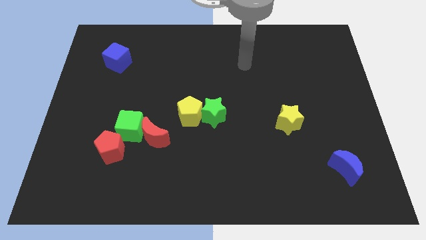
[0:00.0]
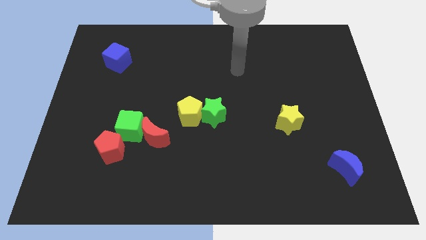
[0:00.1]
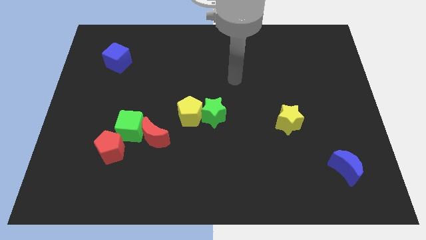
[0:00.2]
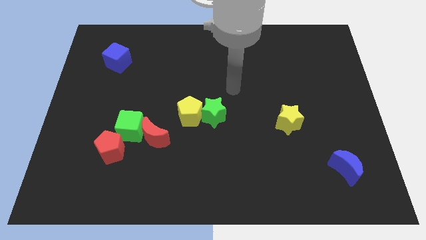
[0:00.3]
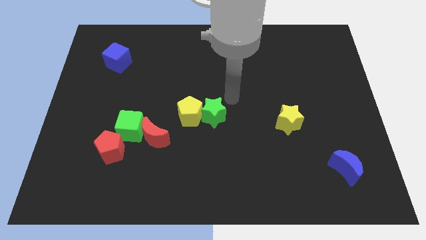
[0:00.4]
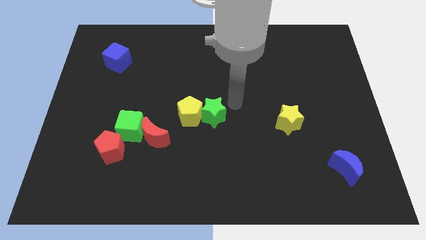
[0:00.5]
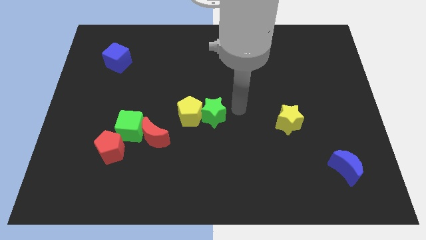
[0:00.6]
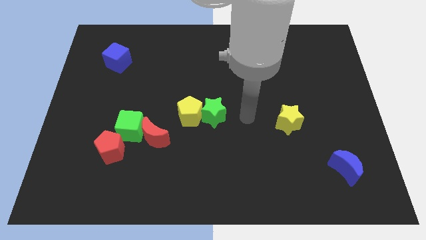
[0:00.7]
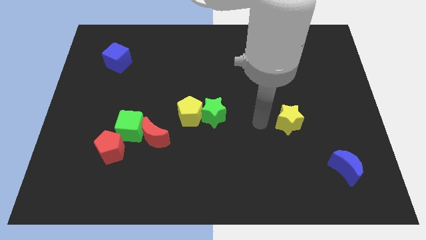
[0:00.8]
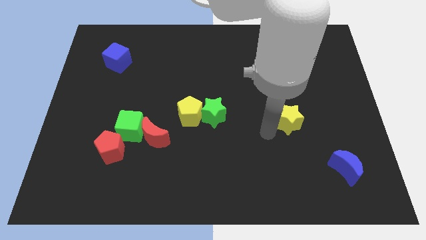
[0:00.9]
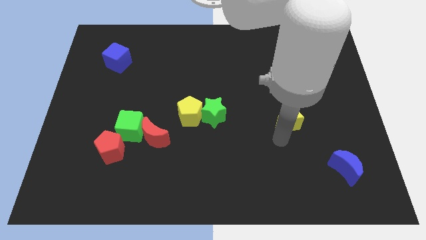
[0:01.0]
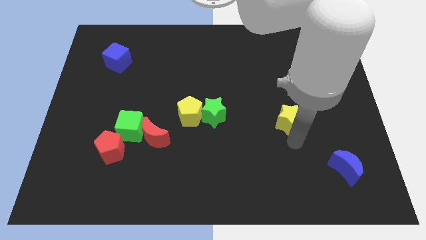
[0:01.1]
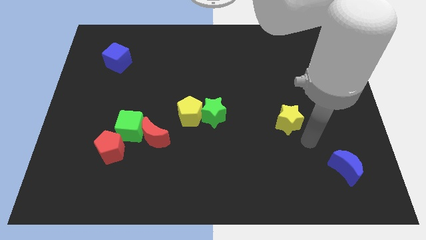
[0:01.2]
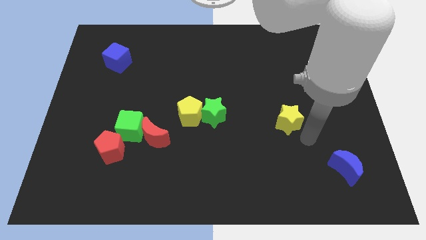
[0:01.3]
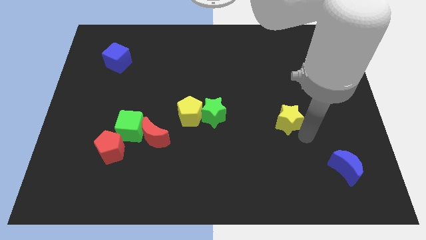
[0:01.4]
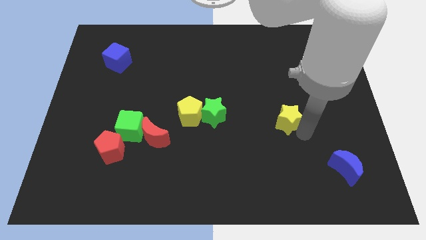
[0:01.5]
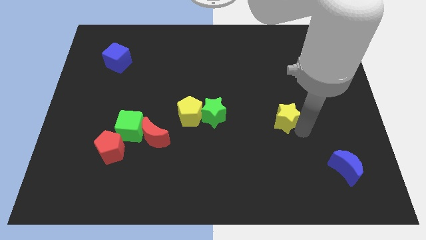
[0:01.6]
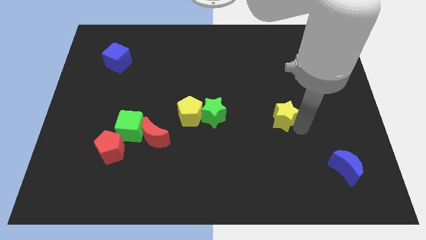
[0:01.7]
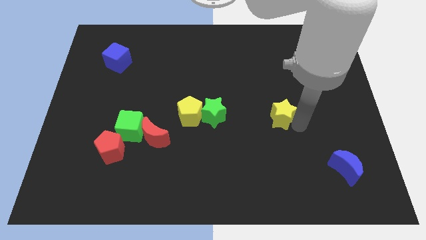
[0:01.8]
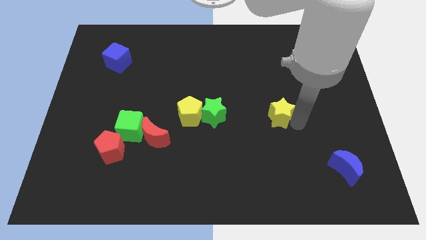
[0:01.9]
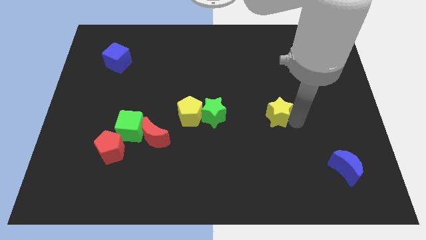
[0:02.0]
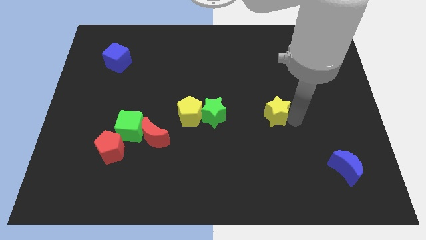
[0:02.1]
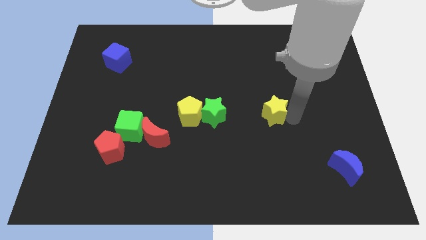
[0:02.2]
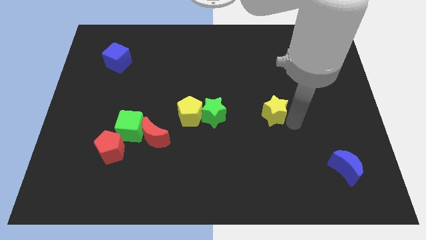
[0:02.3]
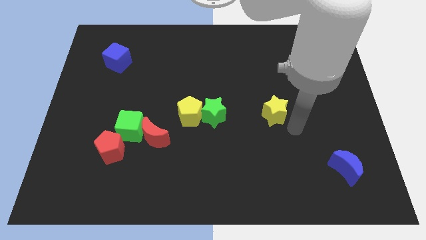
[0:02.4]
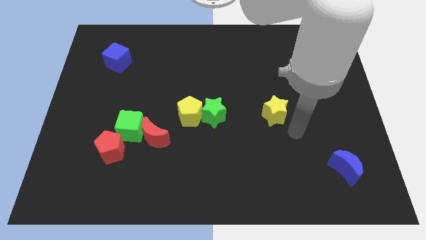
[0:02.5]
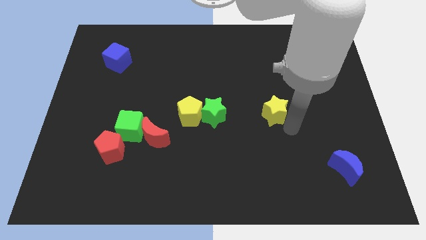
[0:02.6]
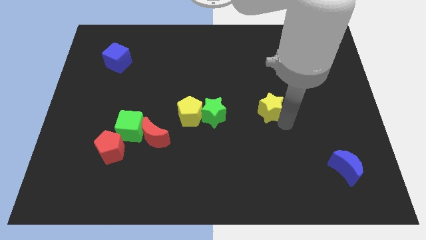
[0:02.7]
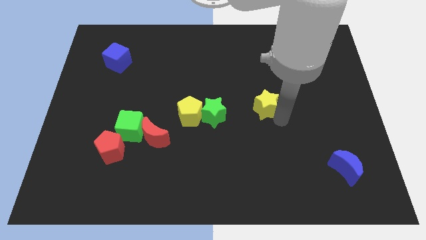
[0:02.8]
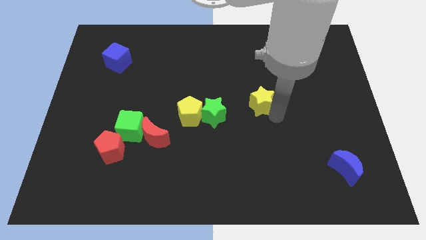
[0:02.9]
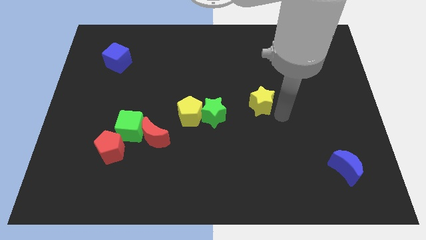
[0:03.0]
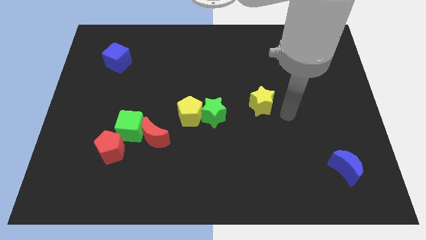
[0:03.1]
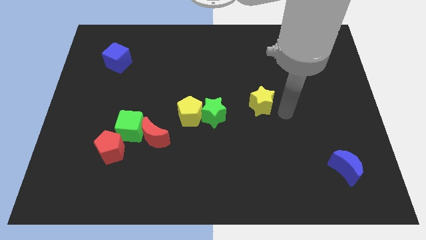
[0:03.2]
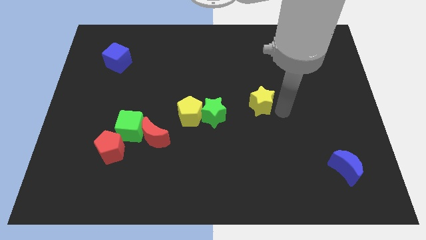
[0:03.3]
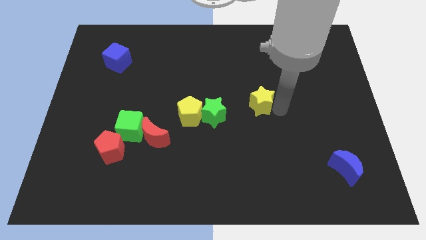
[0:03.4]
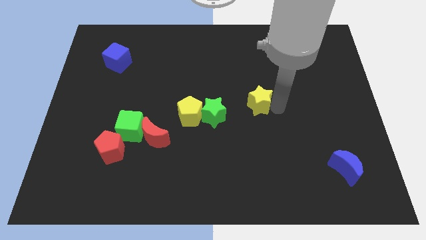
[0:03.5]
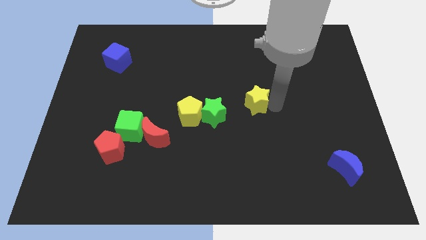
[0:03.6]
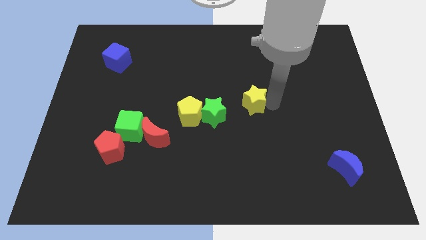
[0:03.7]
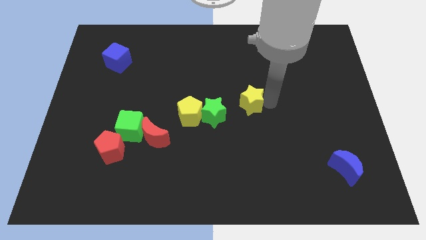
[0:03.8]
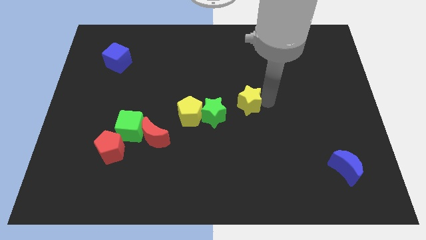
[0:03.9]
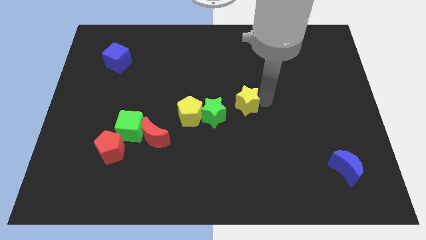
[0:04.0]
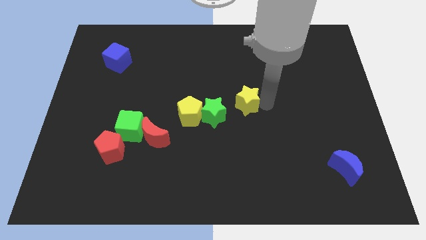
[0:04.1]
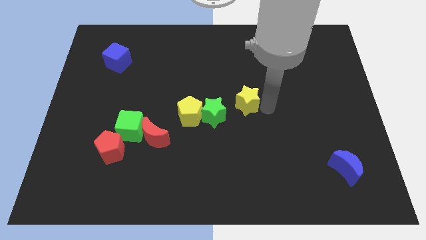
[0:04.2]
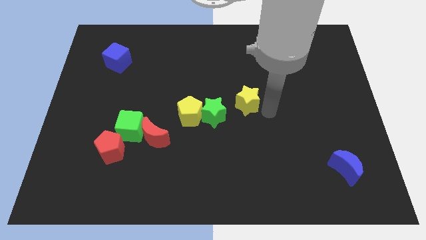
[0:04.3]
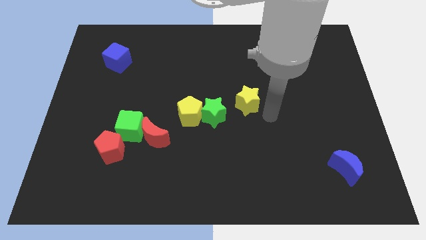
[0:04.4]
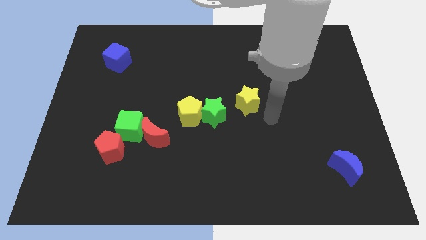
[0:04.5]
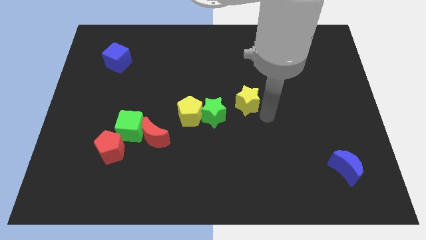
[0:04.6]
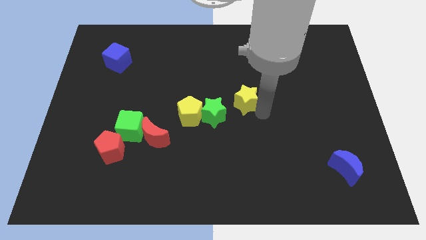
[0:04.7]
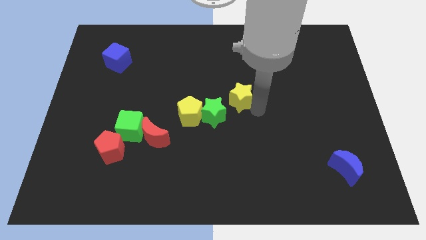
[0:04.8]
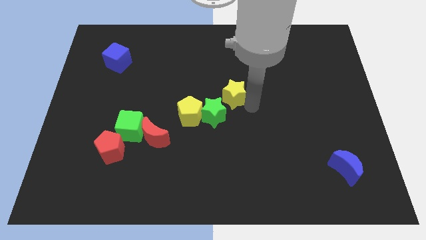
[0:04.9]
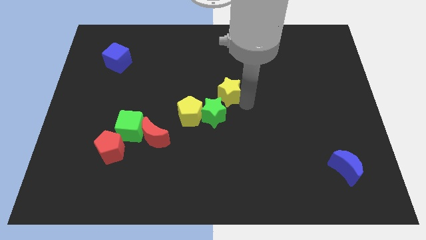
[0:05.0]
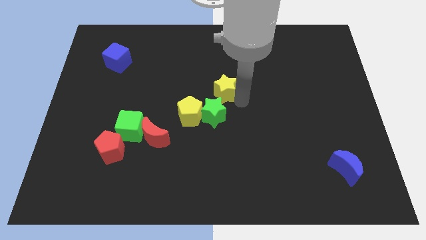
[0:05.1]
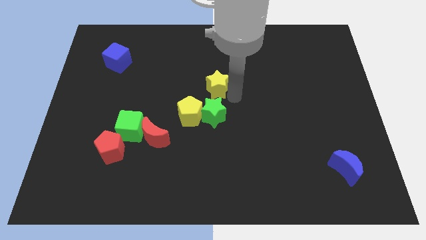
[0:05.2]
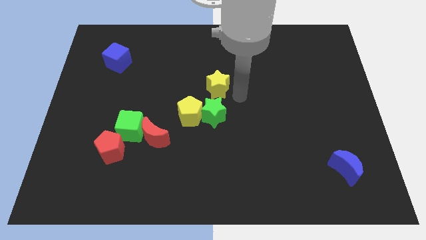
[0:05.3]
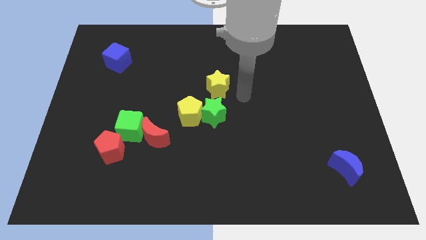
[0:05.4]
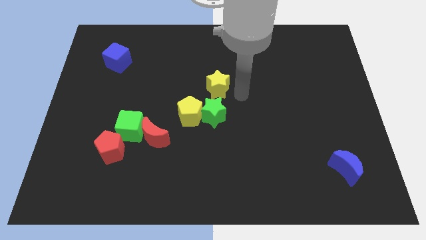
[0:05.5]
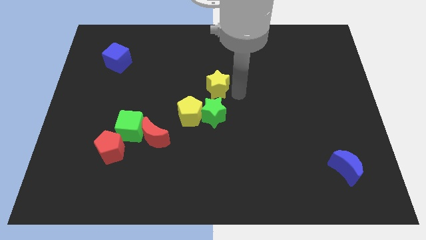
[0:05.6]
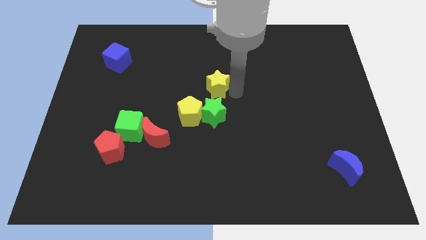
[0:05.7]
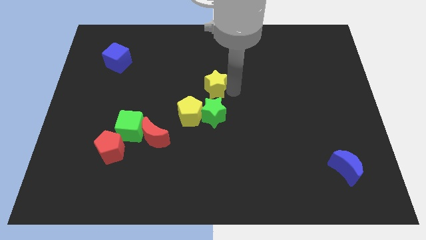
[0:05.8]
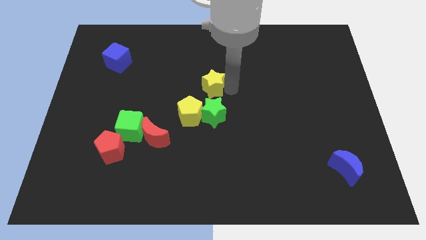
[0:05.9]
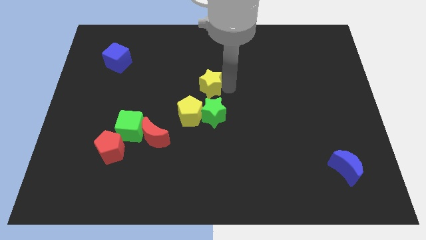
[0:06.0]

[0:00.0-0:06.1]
move the yellow star to the top side of the yellow pentagon

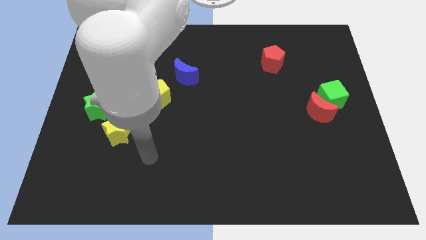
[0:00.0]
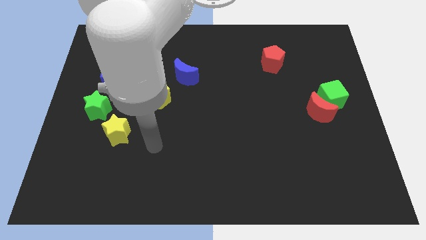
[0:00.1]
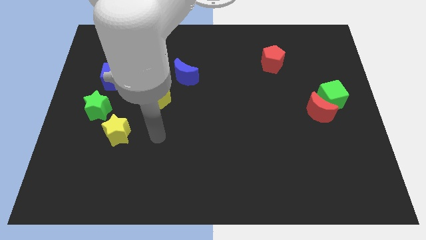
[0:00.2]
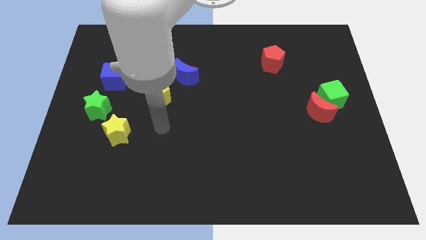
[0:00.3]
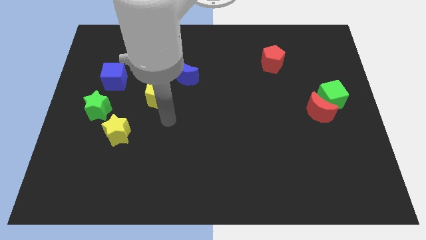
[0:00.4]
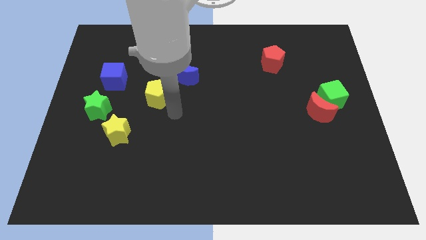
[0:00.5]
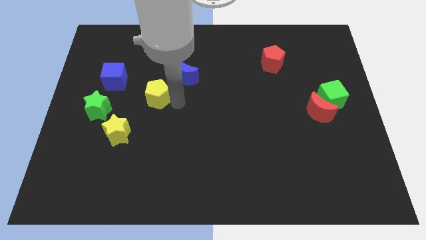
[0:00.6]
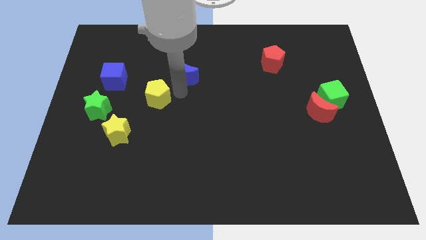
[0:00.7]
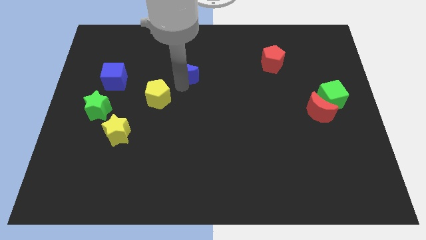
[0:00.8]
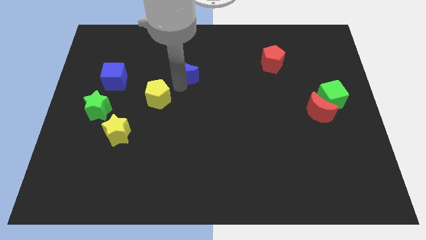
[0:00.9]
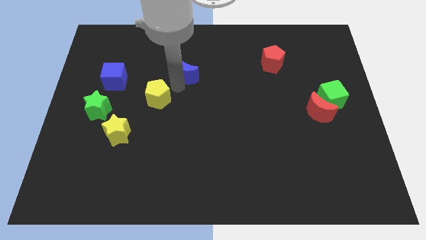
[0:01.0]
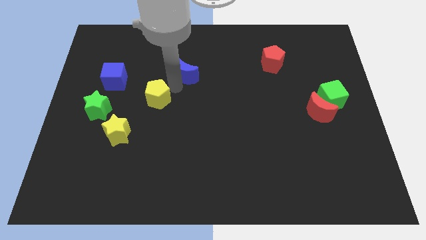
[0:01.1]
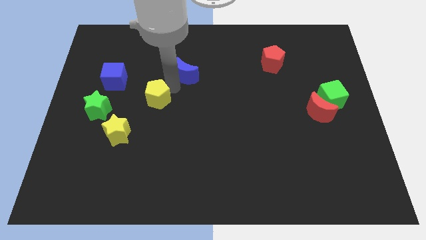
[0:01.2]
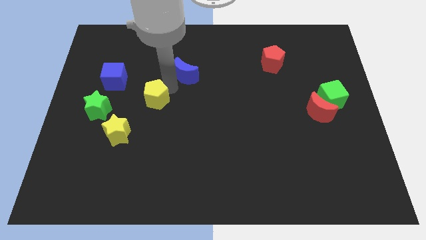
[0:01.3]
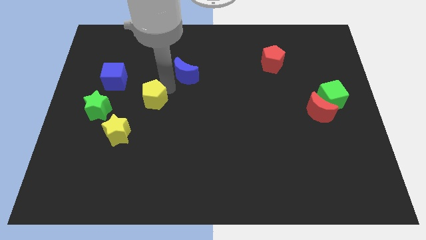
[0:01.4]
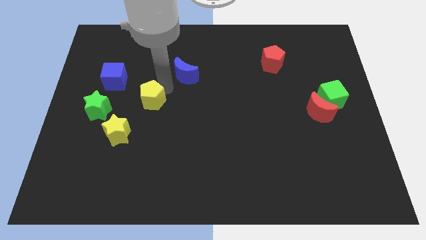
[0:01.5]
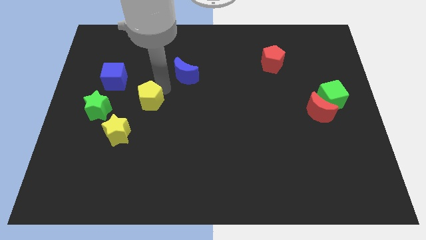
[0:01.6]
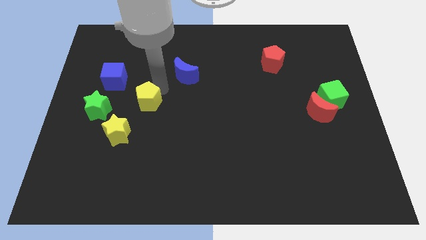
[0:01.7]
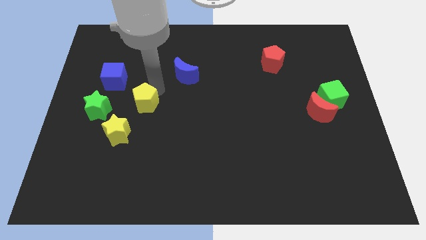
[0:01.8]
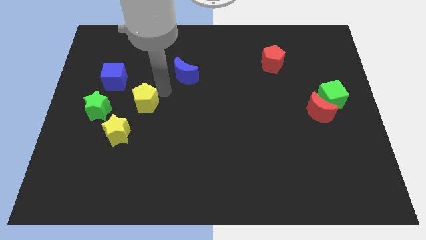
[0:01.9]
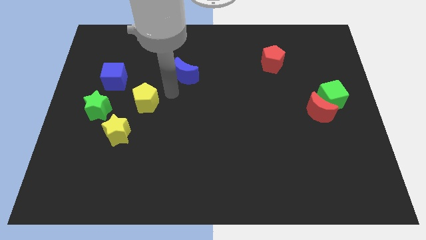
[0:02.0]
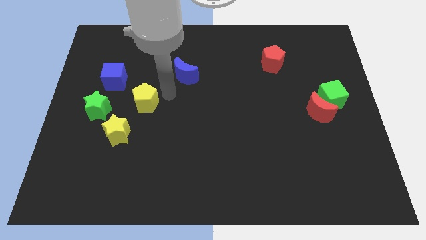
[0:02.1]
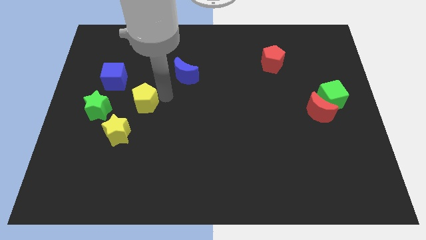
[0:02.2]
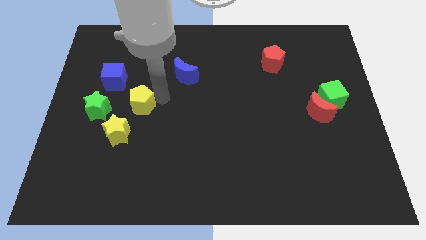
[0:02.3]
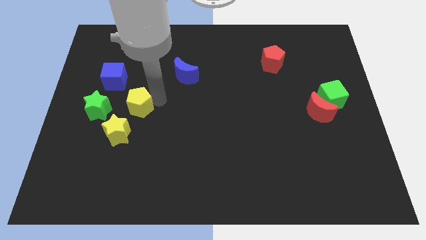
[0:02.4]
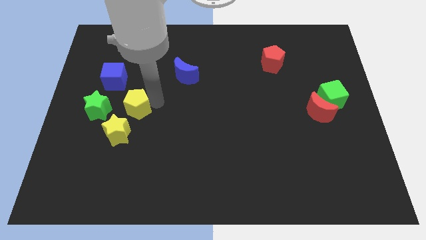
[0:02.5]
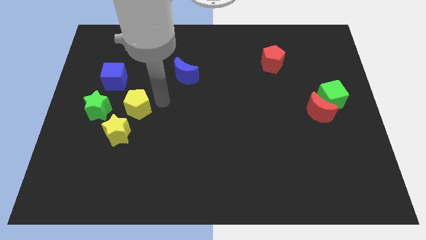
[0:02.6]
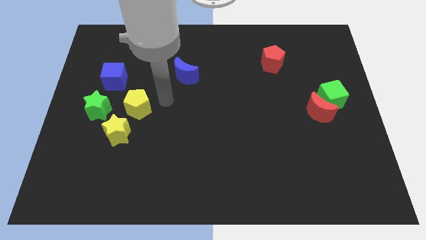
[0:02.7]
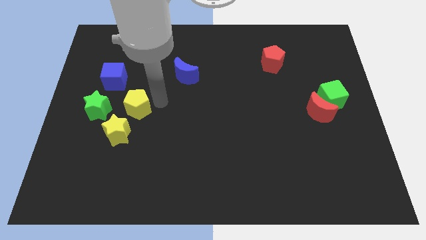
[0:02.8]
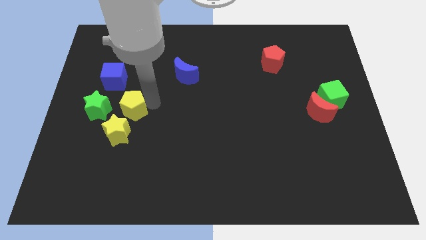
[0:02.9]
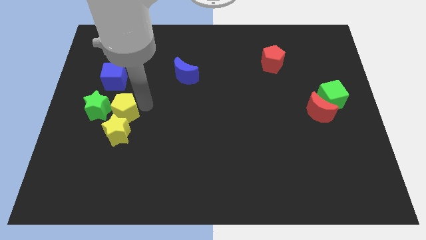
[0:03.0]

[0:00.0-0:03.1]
slide the yellow pentagon to the bottom of the blue cube
